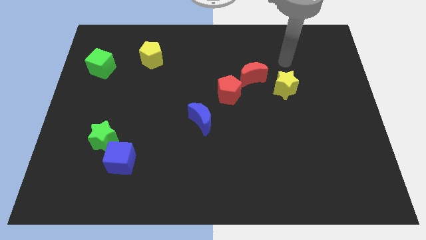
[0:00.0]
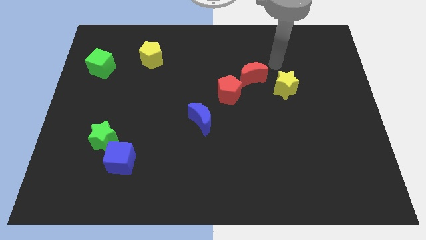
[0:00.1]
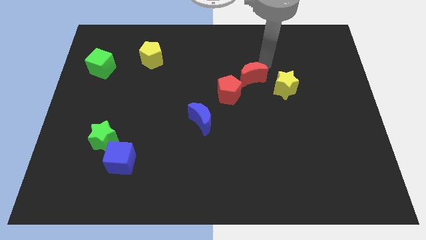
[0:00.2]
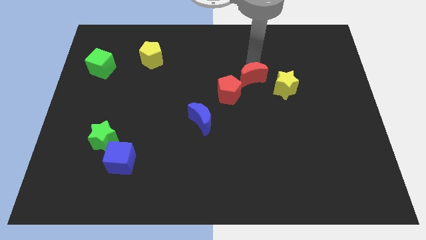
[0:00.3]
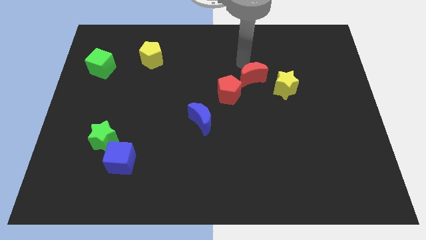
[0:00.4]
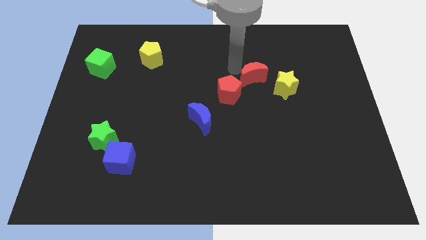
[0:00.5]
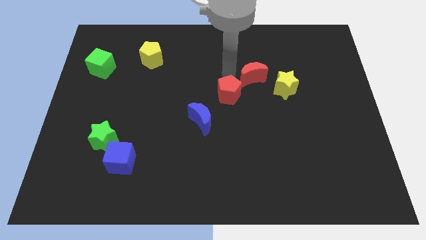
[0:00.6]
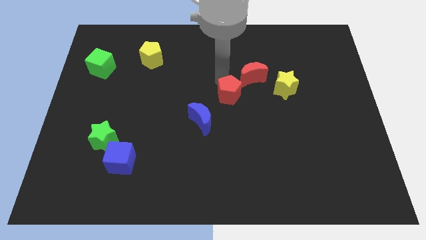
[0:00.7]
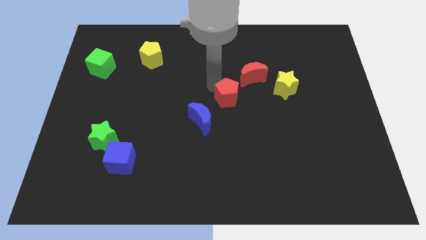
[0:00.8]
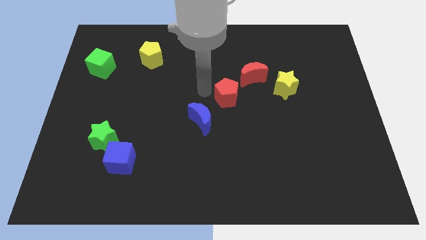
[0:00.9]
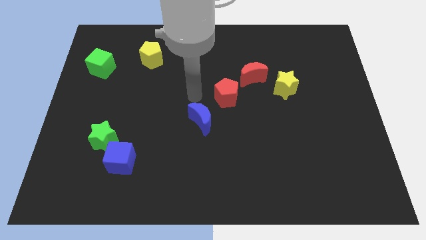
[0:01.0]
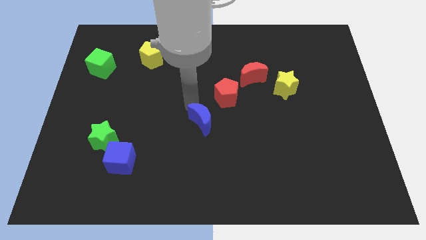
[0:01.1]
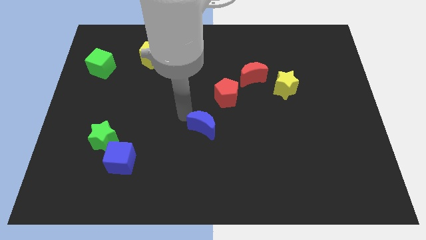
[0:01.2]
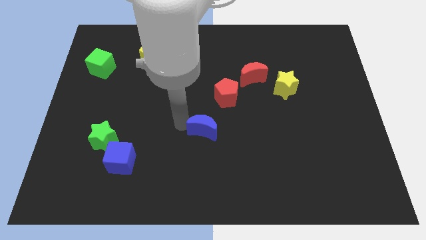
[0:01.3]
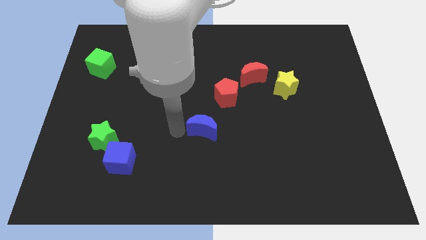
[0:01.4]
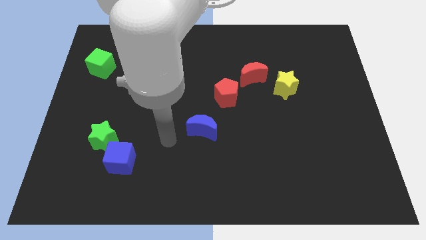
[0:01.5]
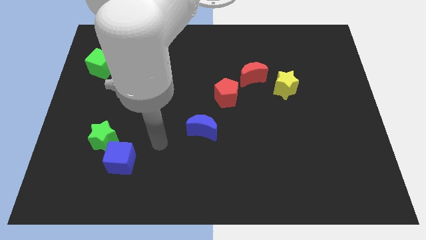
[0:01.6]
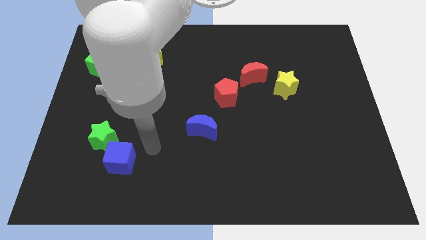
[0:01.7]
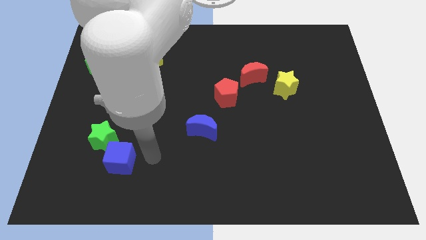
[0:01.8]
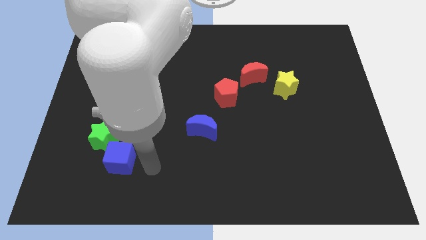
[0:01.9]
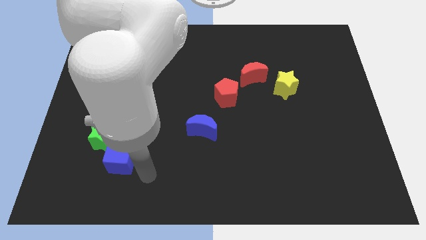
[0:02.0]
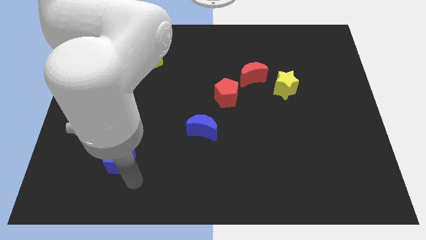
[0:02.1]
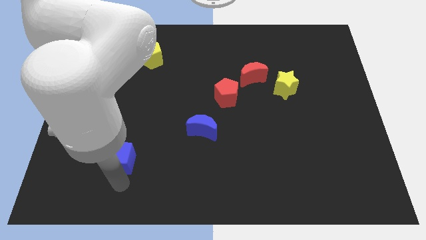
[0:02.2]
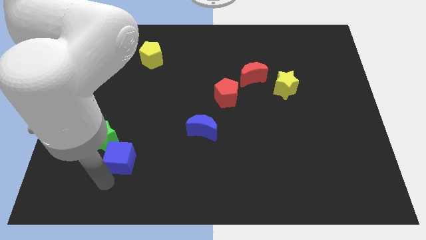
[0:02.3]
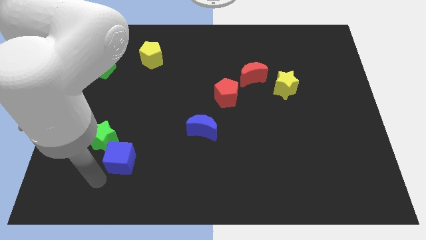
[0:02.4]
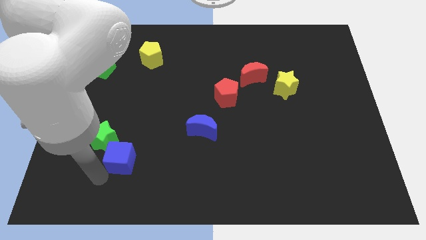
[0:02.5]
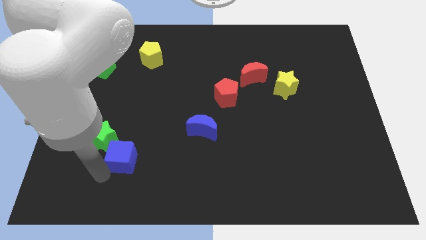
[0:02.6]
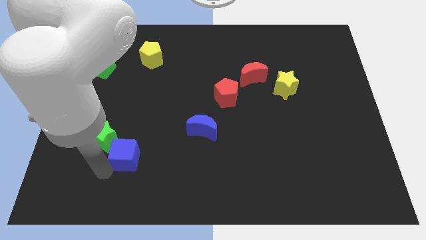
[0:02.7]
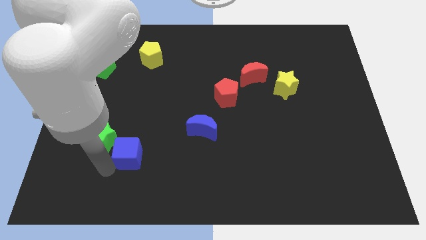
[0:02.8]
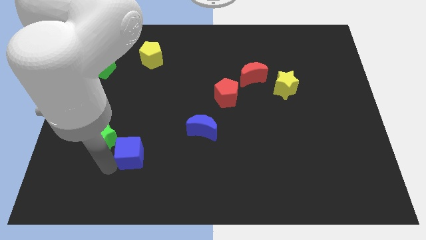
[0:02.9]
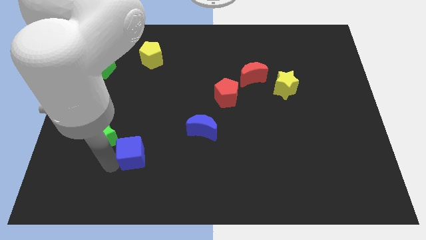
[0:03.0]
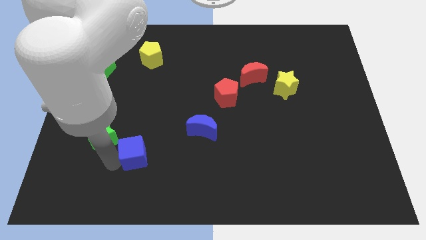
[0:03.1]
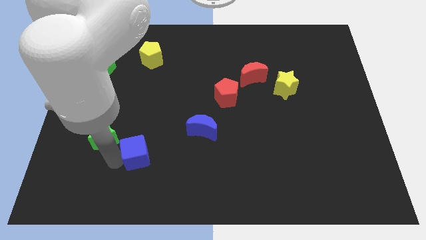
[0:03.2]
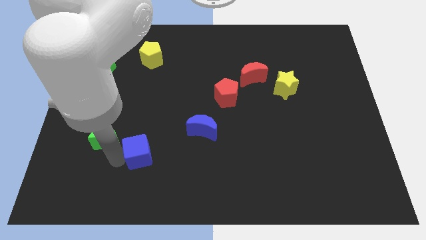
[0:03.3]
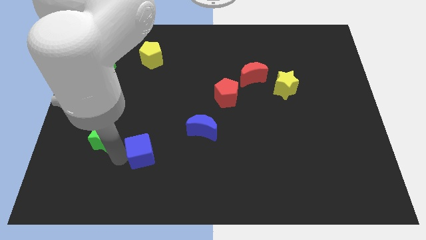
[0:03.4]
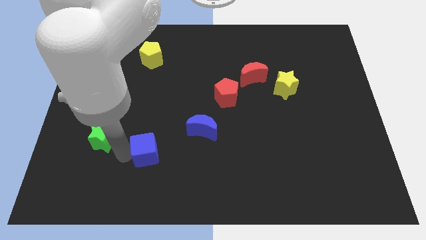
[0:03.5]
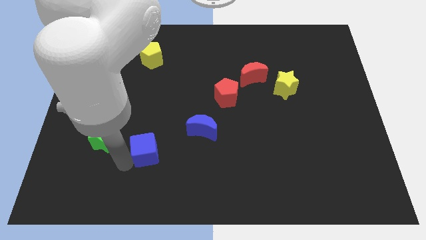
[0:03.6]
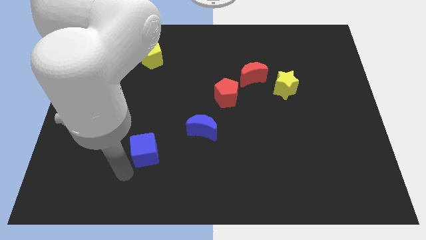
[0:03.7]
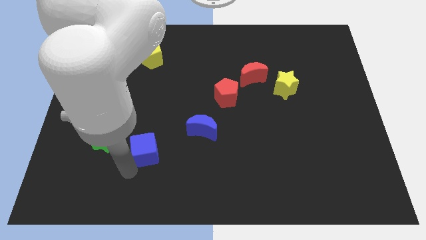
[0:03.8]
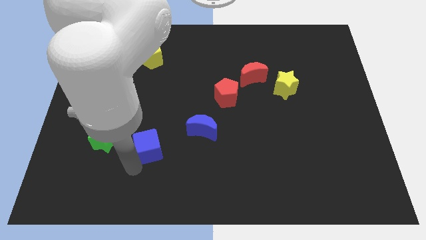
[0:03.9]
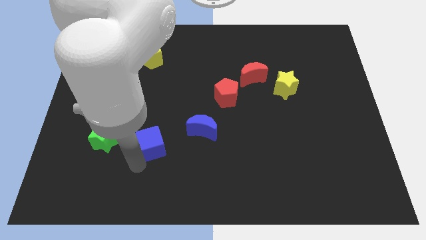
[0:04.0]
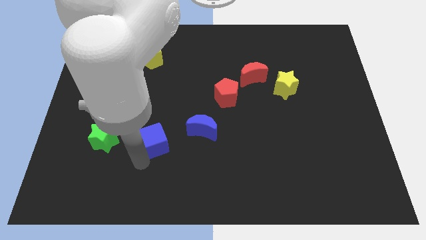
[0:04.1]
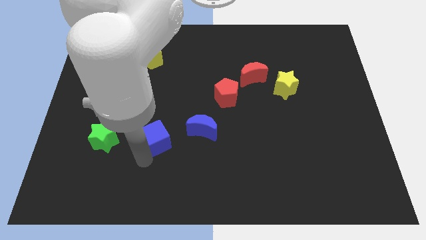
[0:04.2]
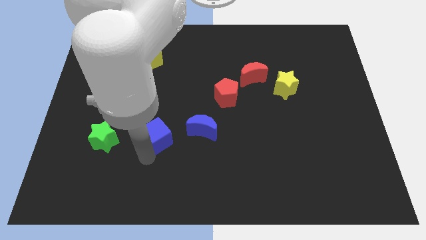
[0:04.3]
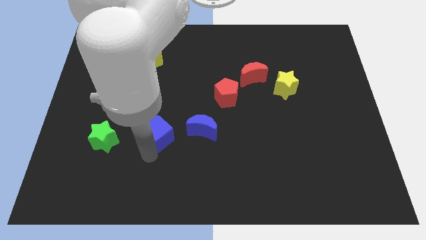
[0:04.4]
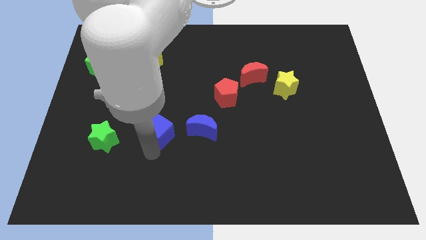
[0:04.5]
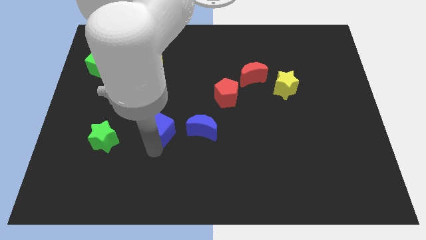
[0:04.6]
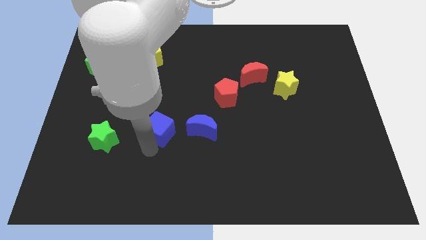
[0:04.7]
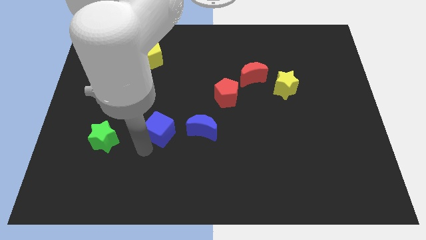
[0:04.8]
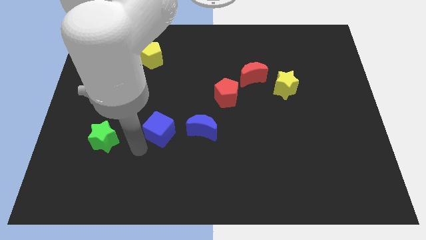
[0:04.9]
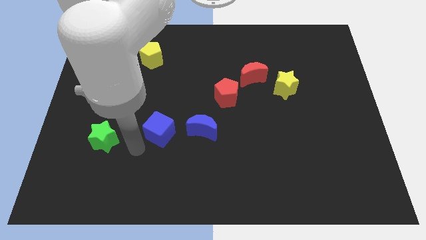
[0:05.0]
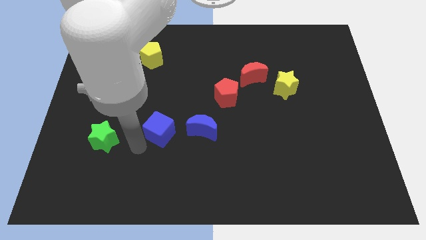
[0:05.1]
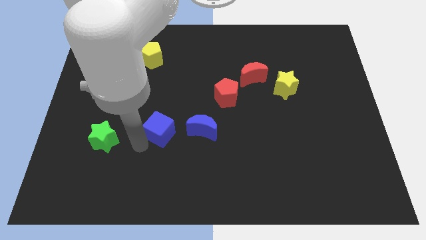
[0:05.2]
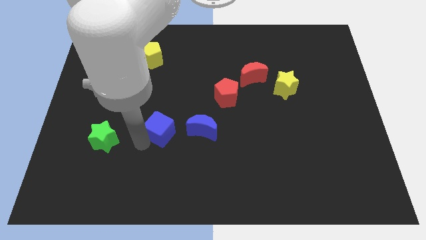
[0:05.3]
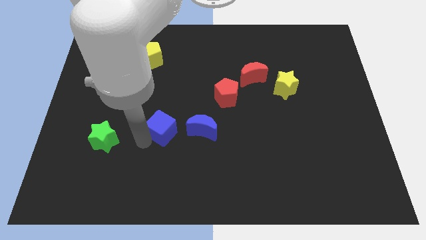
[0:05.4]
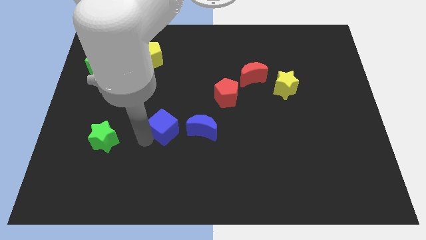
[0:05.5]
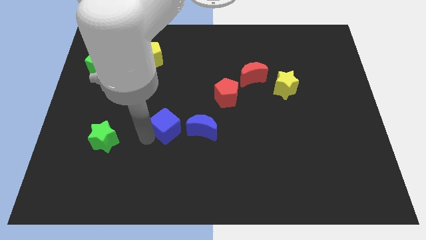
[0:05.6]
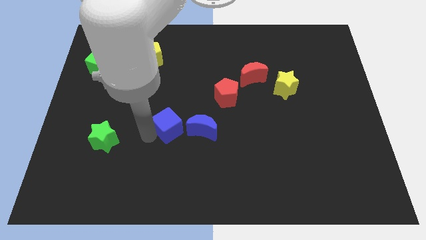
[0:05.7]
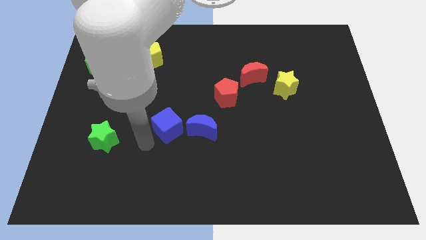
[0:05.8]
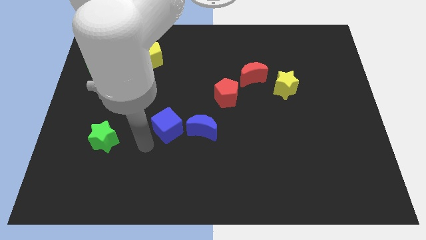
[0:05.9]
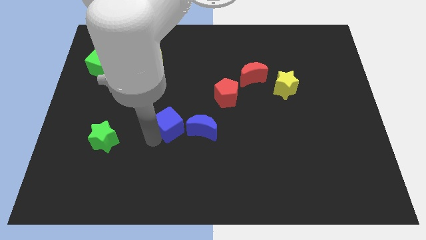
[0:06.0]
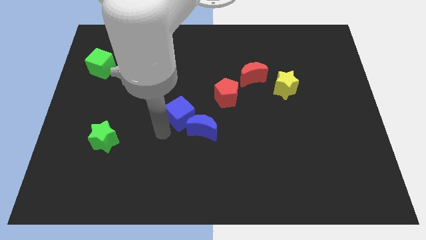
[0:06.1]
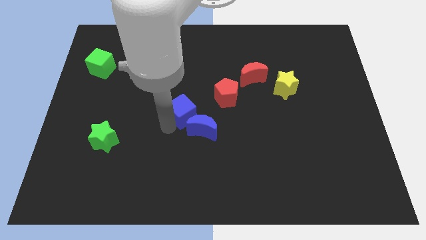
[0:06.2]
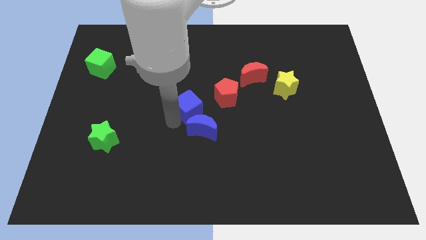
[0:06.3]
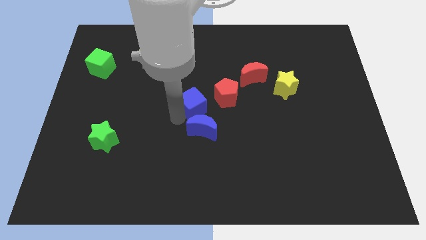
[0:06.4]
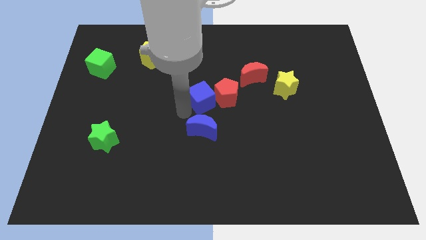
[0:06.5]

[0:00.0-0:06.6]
push the blue cube close to the red pentagon

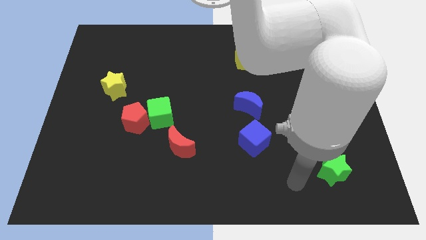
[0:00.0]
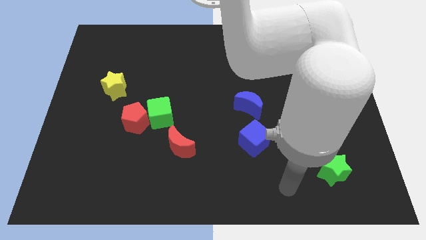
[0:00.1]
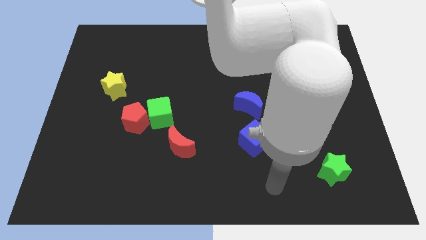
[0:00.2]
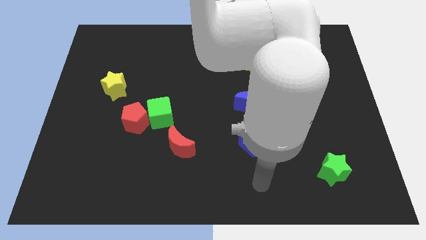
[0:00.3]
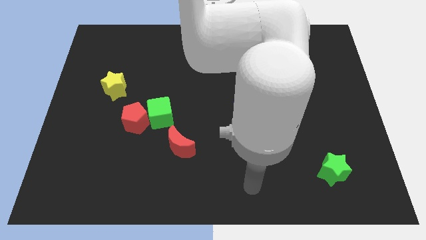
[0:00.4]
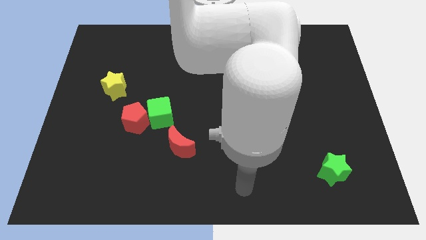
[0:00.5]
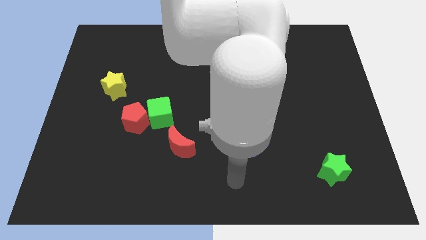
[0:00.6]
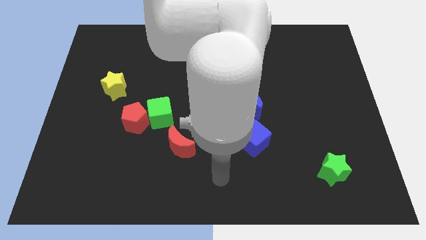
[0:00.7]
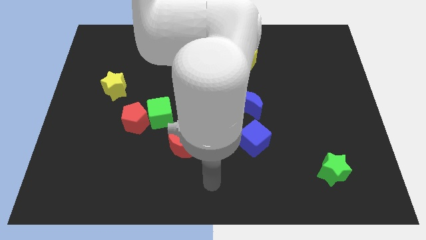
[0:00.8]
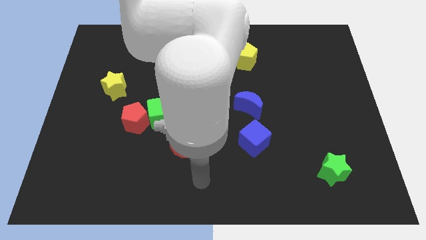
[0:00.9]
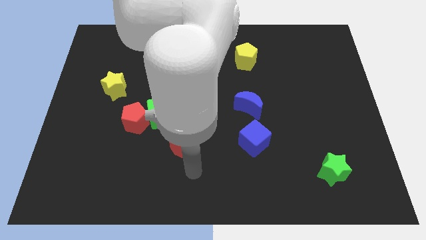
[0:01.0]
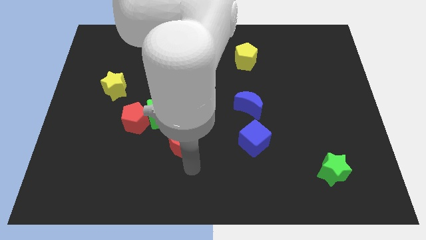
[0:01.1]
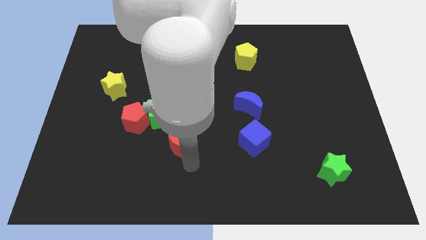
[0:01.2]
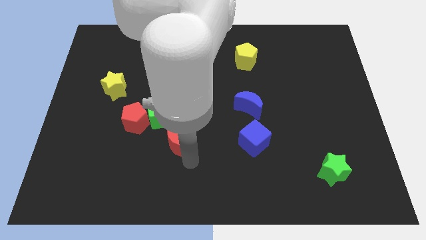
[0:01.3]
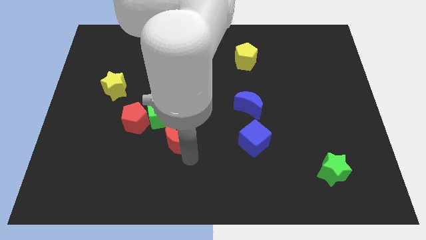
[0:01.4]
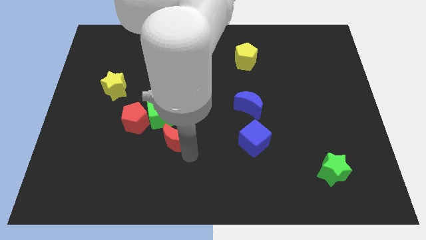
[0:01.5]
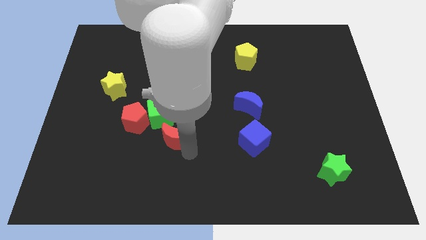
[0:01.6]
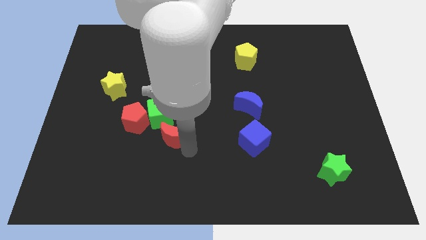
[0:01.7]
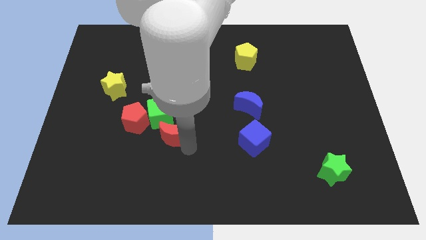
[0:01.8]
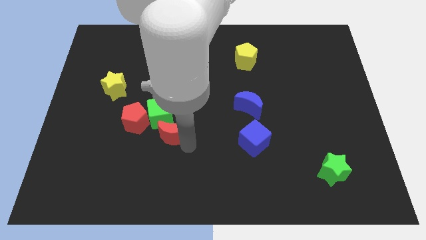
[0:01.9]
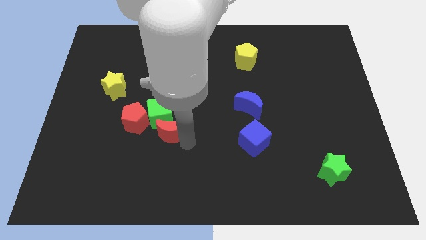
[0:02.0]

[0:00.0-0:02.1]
push the red moon close to the green cube
